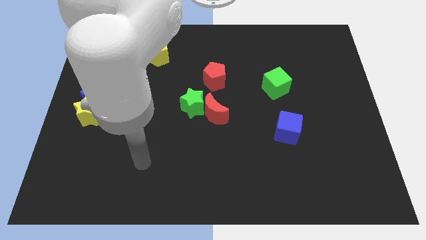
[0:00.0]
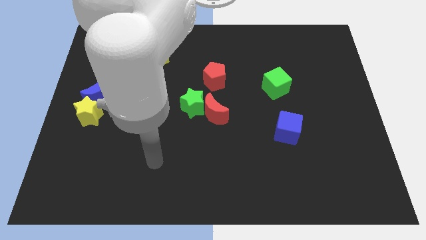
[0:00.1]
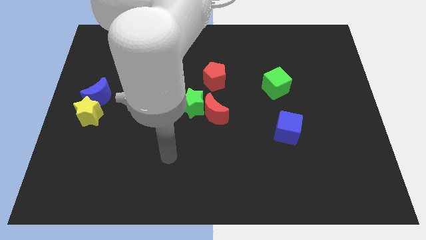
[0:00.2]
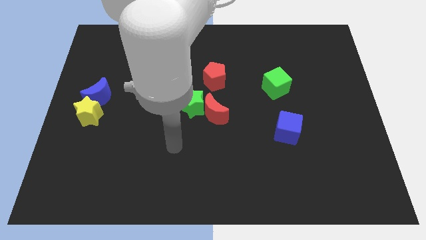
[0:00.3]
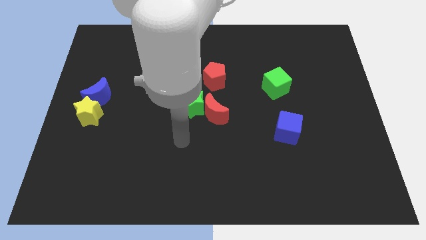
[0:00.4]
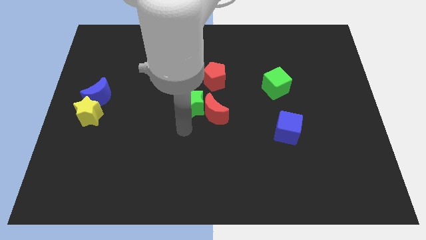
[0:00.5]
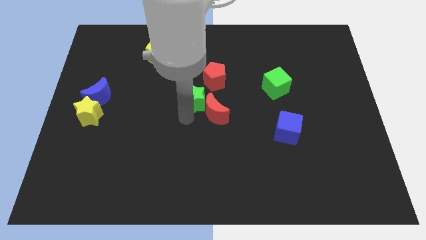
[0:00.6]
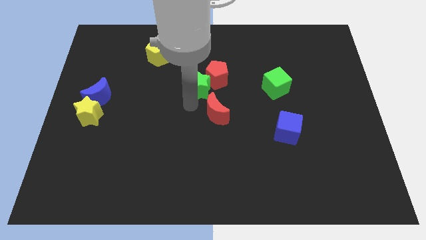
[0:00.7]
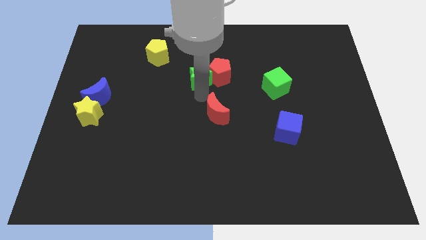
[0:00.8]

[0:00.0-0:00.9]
pull the red moon apart from the green star

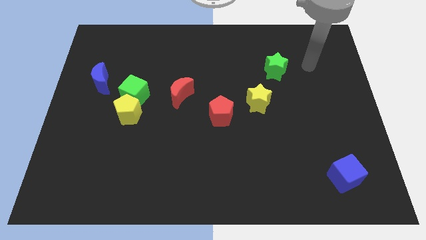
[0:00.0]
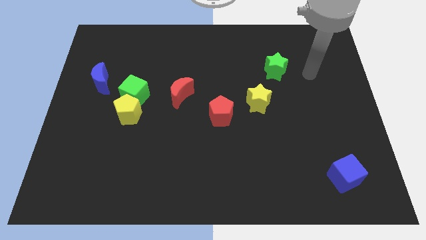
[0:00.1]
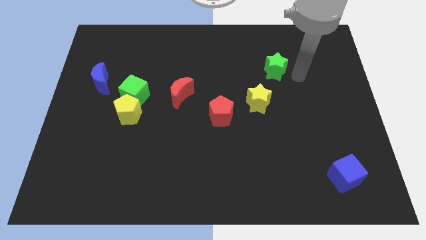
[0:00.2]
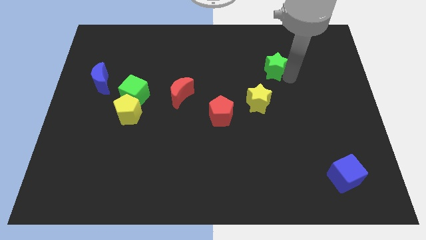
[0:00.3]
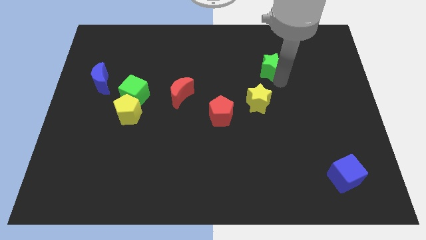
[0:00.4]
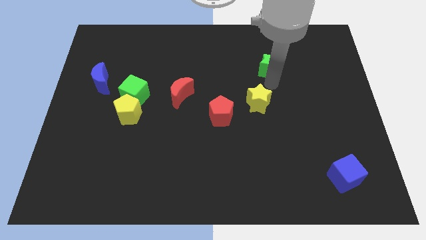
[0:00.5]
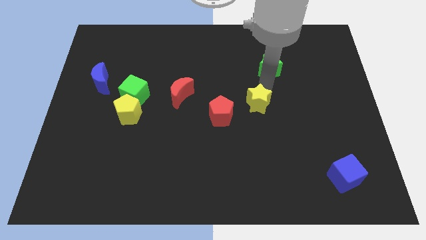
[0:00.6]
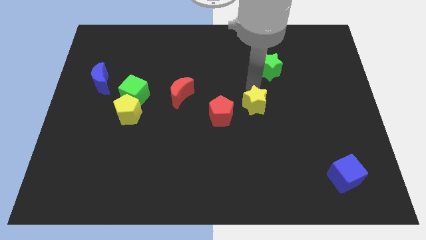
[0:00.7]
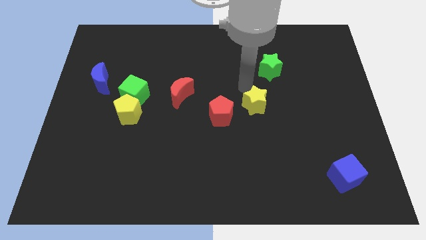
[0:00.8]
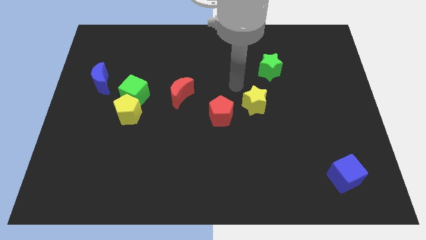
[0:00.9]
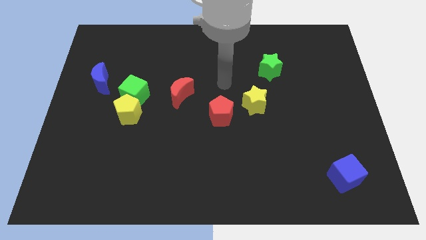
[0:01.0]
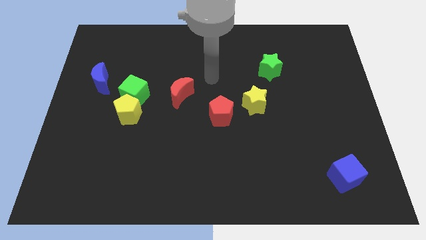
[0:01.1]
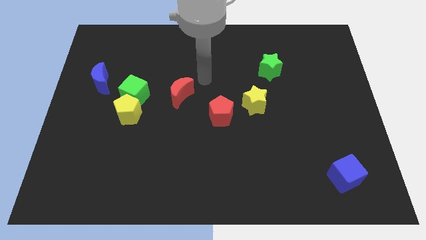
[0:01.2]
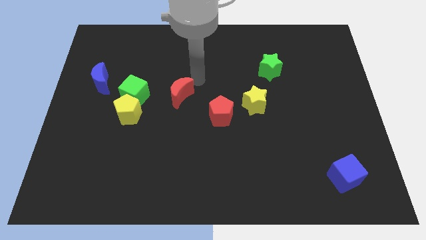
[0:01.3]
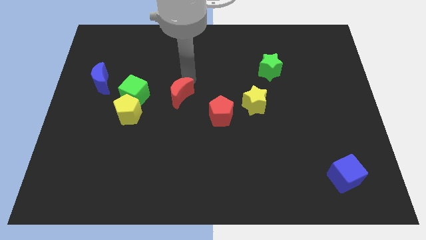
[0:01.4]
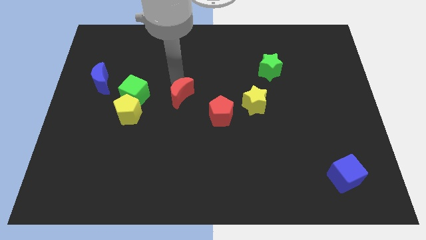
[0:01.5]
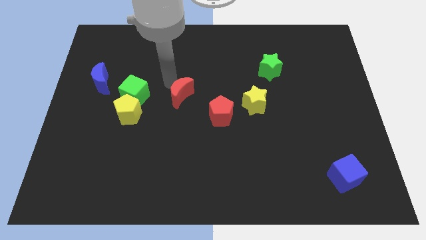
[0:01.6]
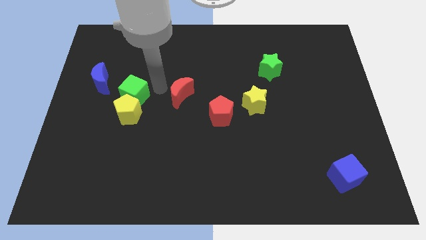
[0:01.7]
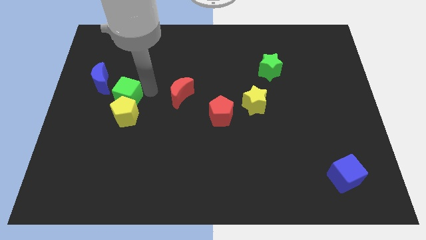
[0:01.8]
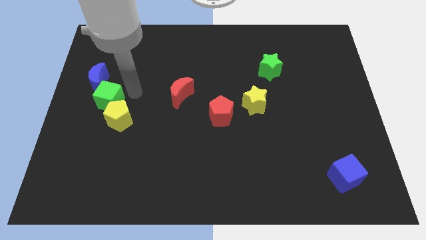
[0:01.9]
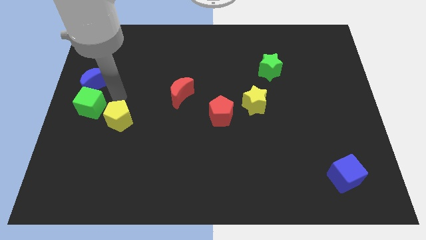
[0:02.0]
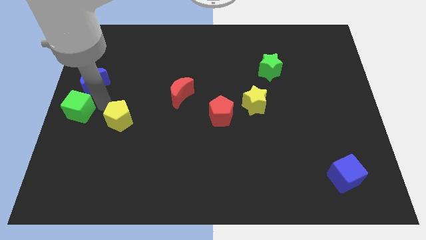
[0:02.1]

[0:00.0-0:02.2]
pull the yellow pentagon apart from the green cube

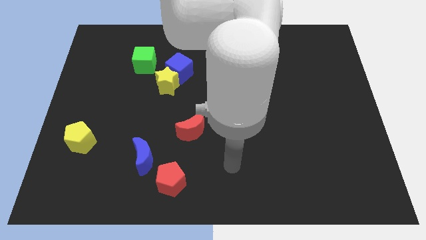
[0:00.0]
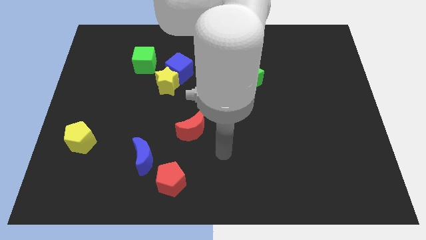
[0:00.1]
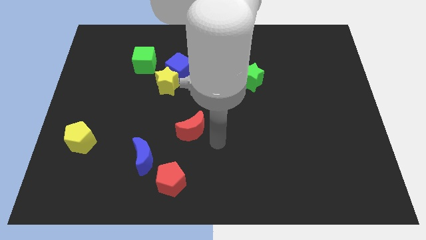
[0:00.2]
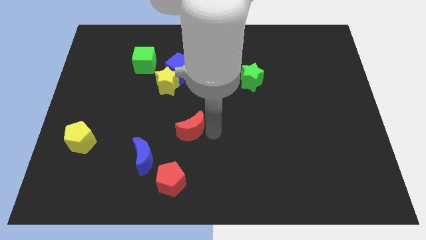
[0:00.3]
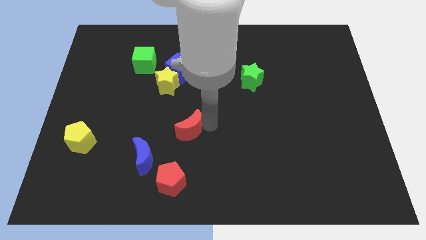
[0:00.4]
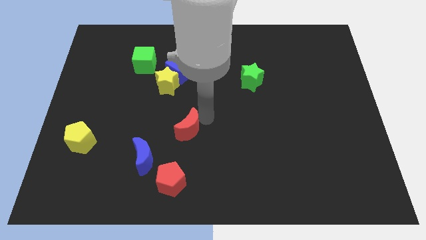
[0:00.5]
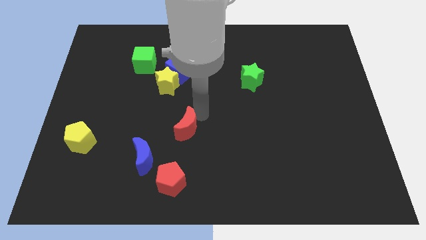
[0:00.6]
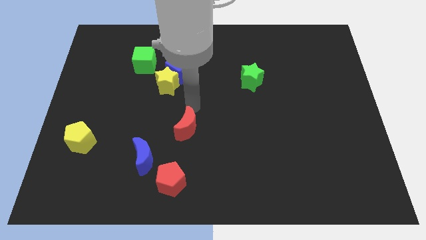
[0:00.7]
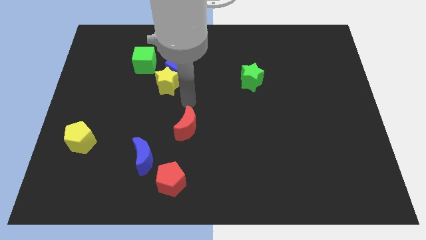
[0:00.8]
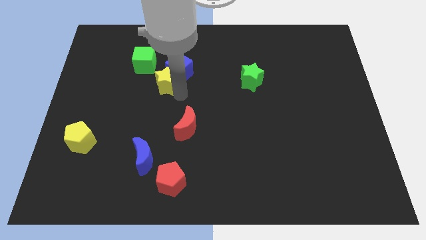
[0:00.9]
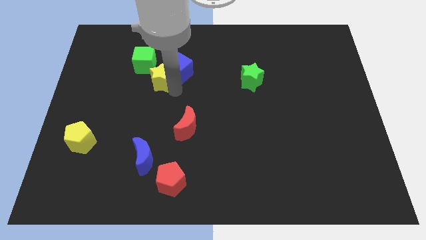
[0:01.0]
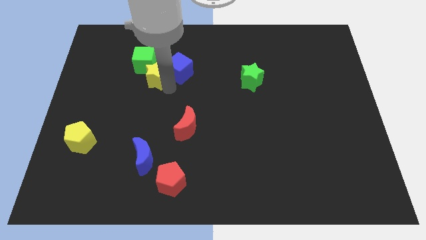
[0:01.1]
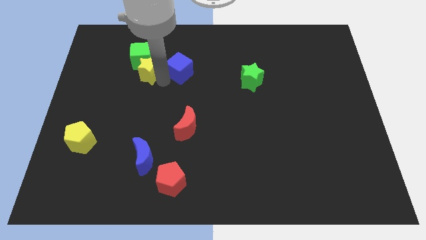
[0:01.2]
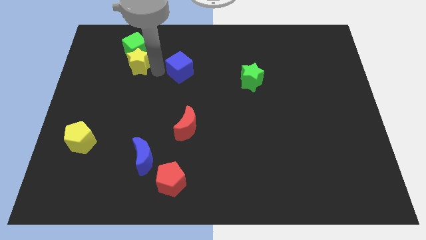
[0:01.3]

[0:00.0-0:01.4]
separate the blue cube from the yellow star and green cube

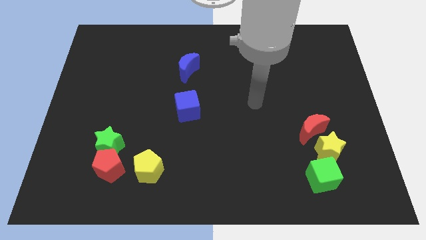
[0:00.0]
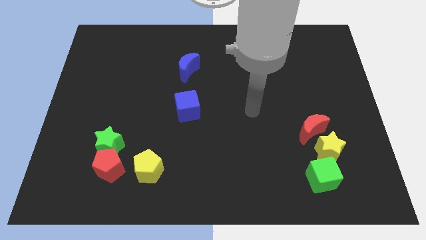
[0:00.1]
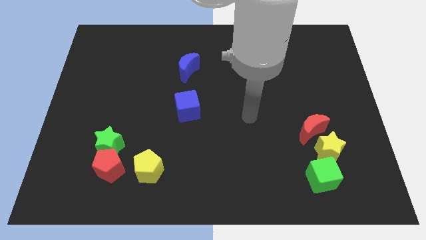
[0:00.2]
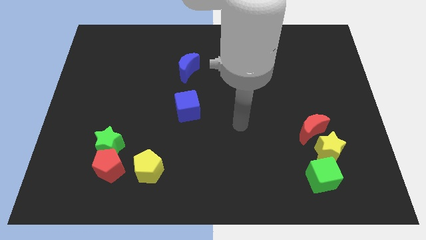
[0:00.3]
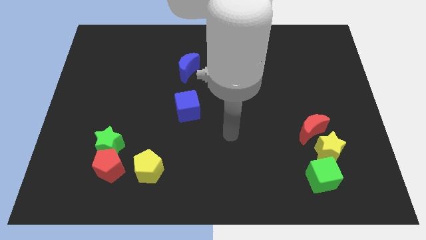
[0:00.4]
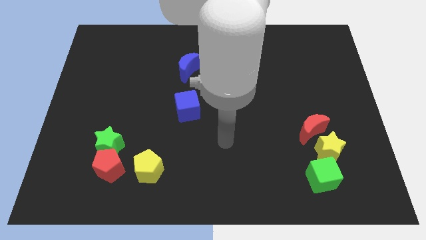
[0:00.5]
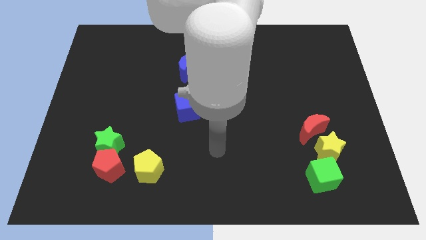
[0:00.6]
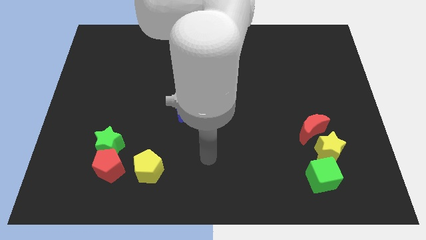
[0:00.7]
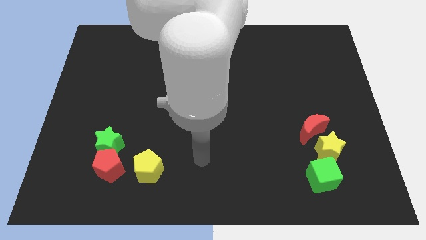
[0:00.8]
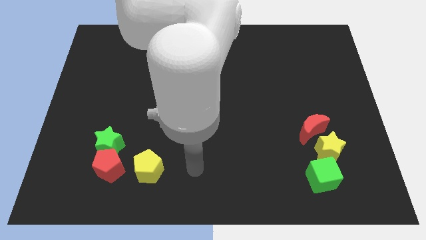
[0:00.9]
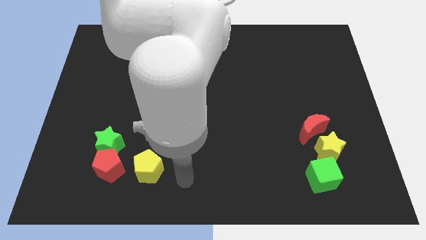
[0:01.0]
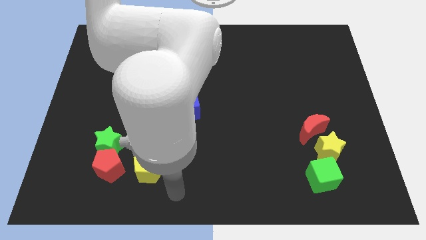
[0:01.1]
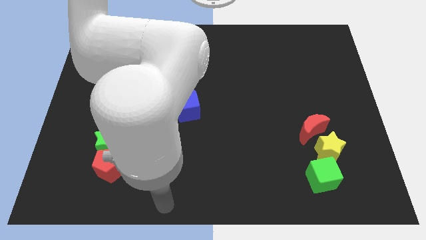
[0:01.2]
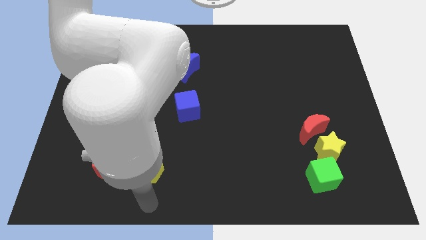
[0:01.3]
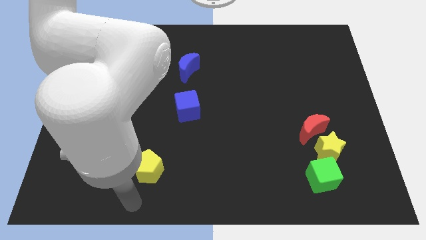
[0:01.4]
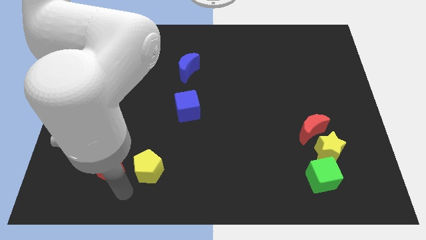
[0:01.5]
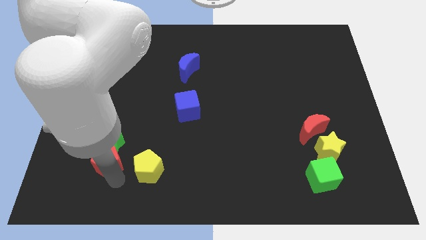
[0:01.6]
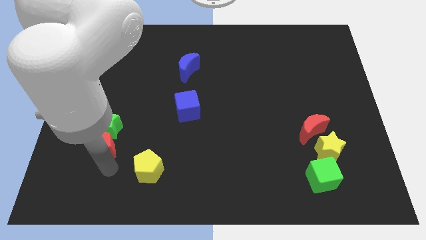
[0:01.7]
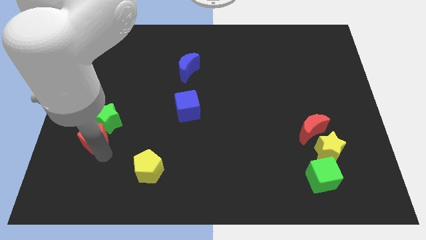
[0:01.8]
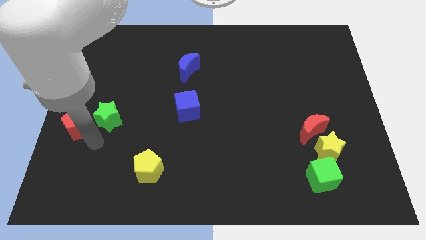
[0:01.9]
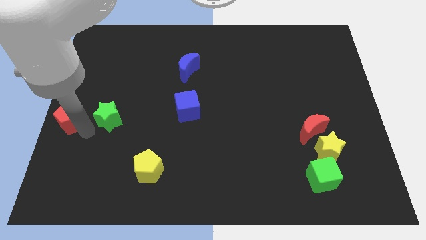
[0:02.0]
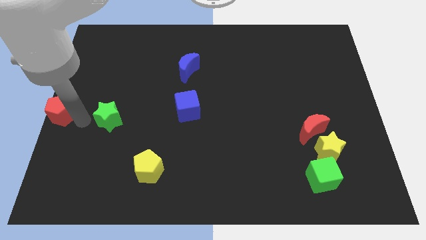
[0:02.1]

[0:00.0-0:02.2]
pull the green star apart from the red pentagon

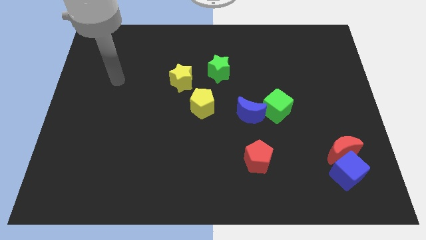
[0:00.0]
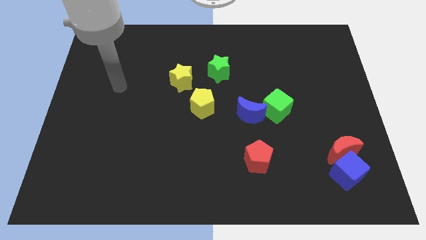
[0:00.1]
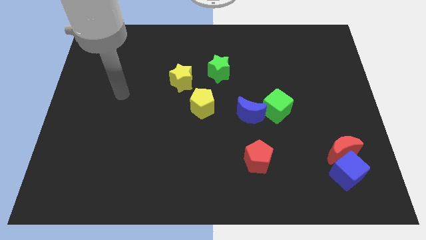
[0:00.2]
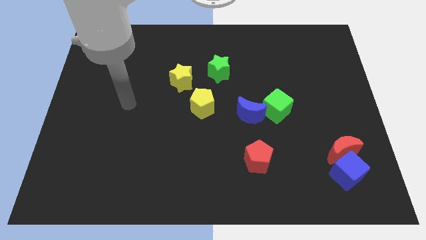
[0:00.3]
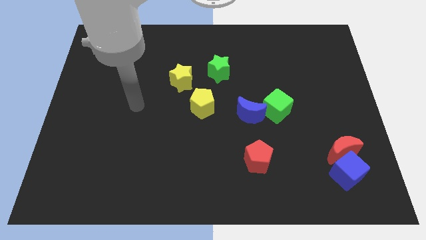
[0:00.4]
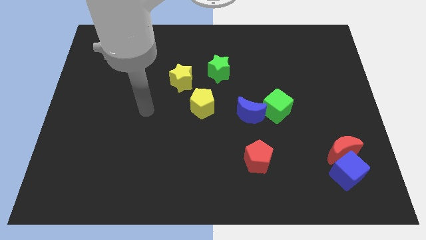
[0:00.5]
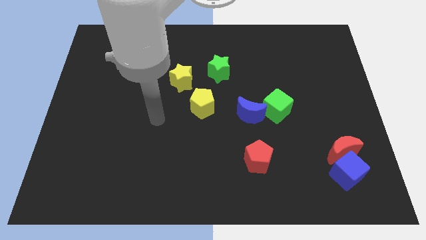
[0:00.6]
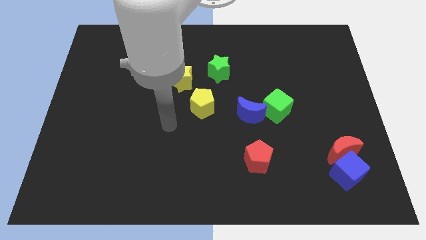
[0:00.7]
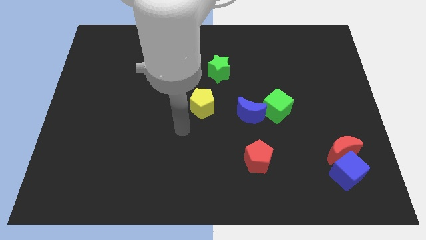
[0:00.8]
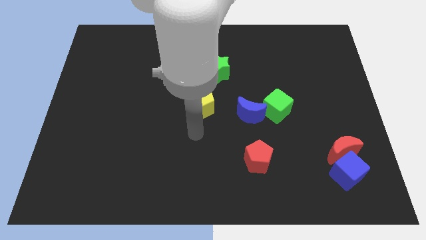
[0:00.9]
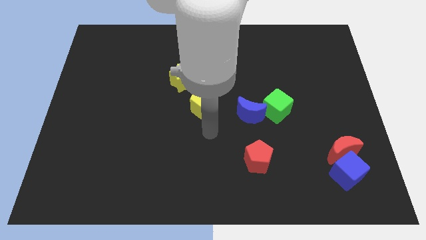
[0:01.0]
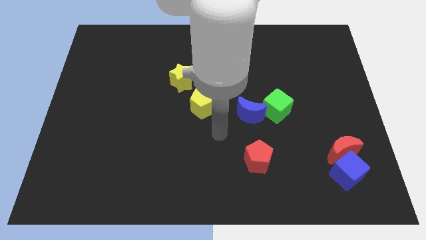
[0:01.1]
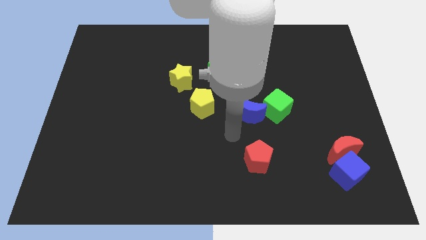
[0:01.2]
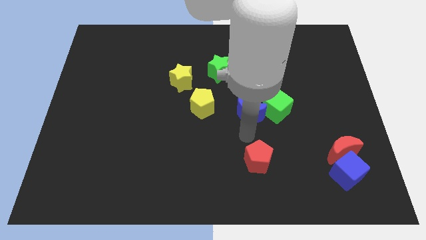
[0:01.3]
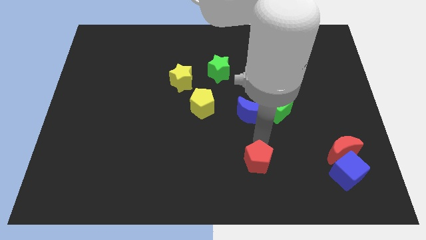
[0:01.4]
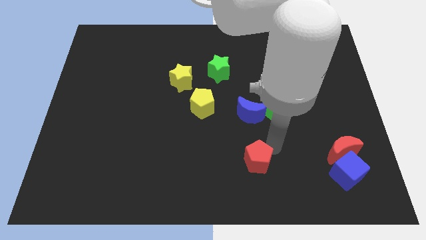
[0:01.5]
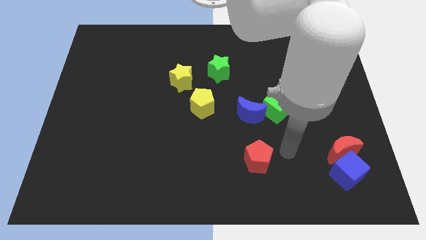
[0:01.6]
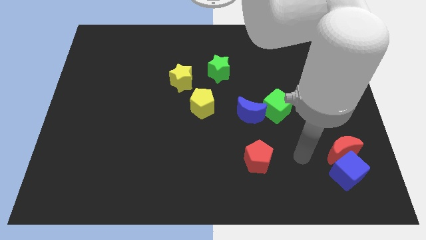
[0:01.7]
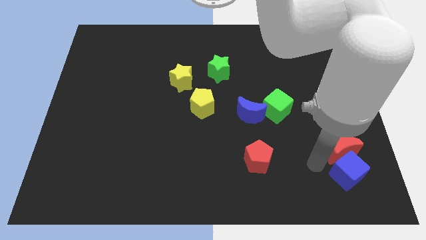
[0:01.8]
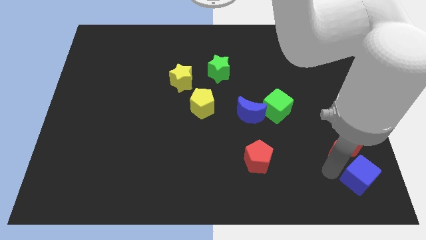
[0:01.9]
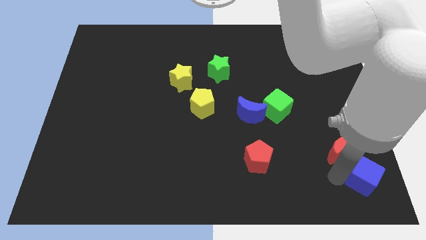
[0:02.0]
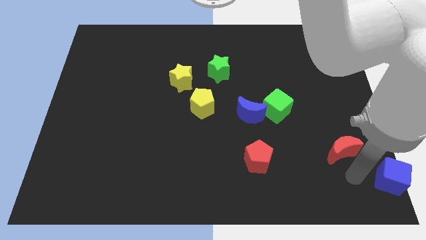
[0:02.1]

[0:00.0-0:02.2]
separate the red moon from the blue cube

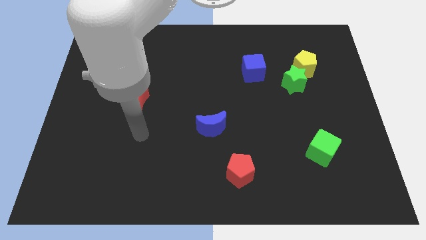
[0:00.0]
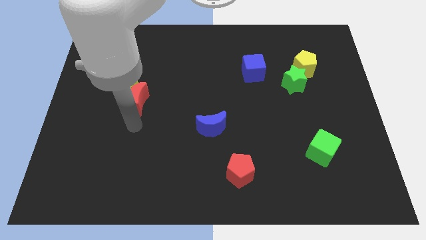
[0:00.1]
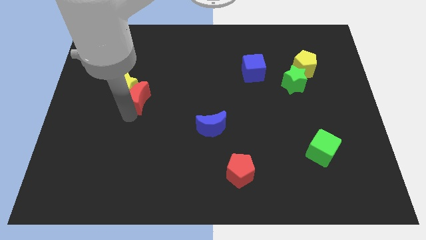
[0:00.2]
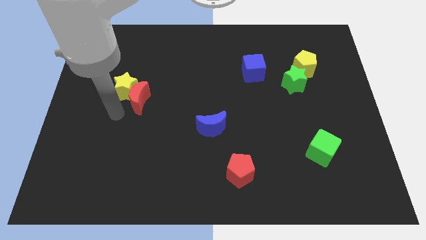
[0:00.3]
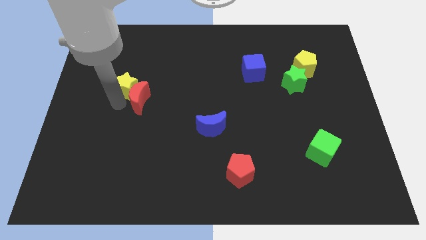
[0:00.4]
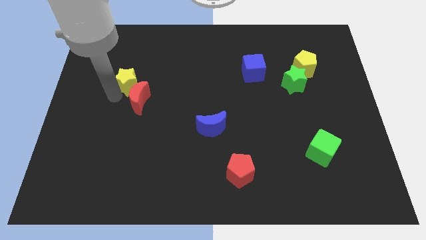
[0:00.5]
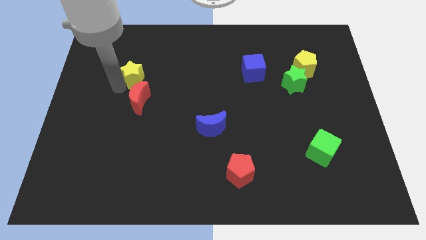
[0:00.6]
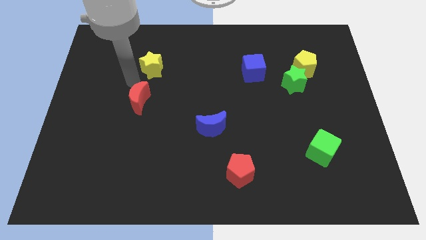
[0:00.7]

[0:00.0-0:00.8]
separate the red moon from the yellow star
